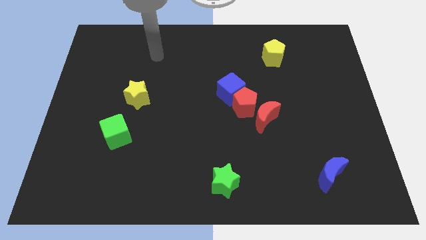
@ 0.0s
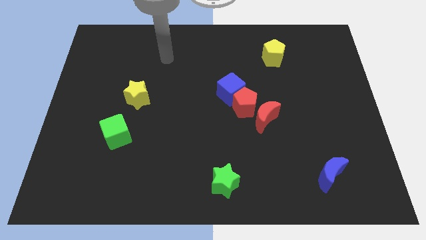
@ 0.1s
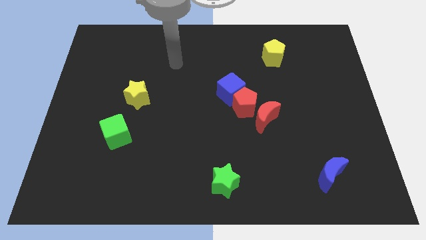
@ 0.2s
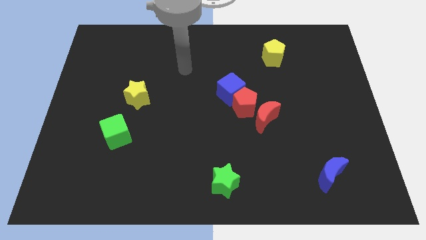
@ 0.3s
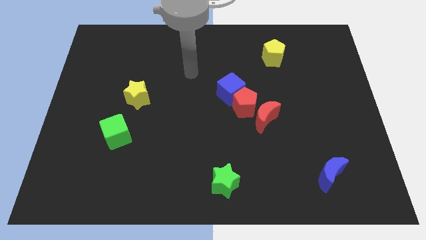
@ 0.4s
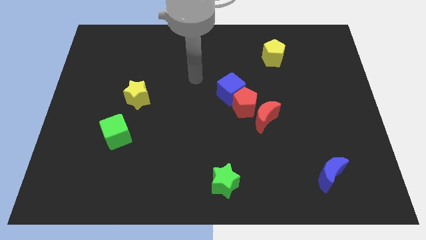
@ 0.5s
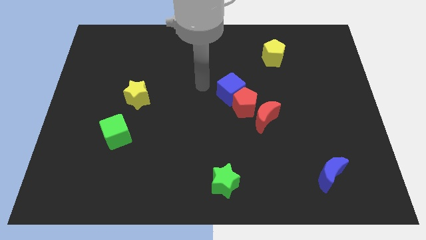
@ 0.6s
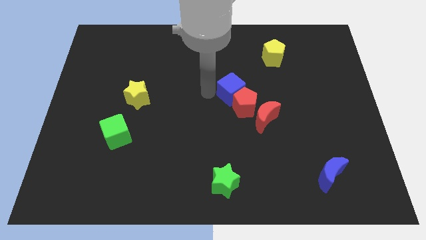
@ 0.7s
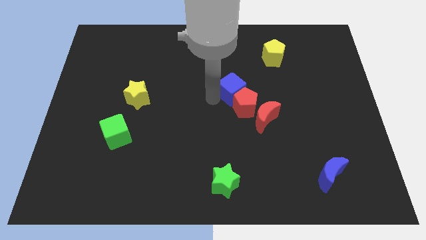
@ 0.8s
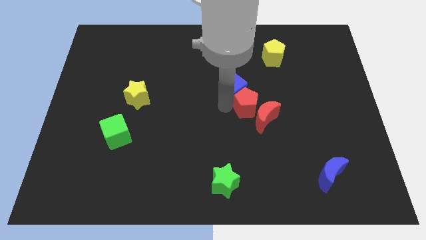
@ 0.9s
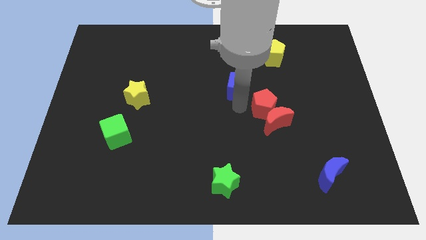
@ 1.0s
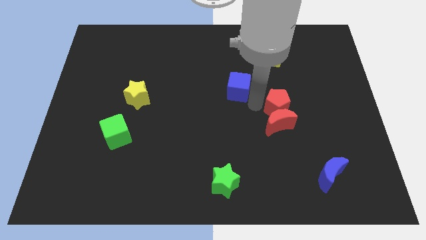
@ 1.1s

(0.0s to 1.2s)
move the blue cube away from the red pentagon

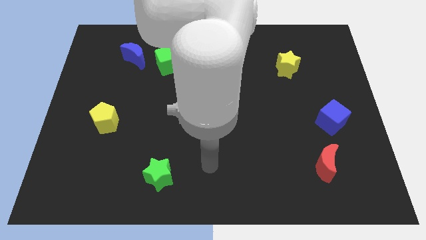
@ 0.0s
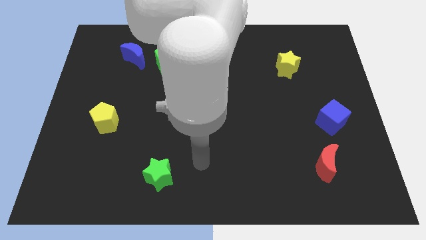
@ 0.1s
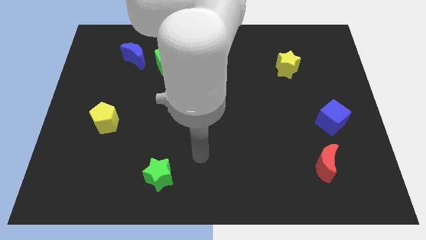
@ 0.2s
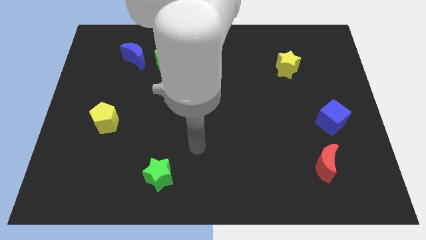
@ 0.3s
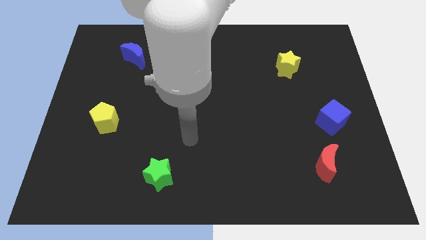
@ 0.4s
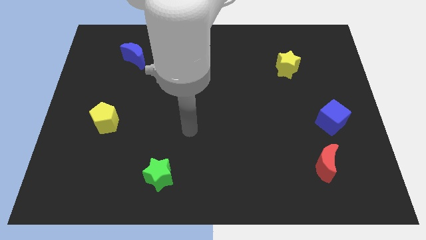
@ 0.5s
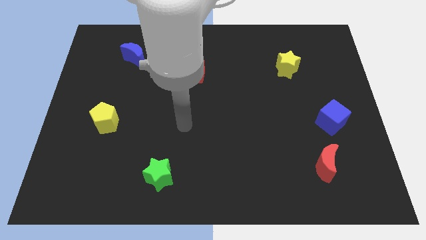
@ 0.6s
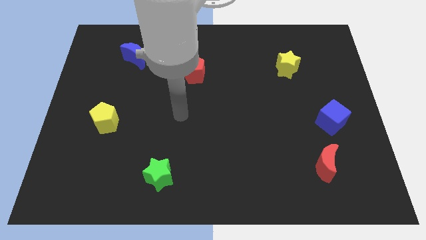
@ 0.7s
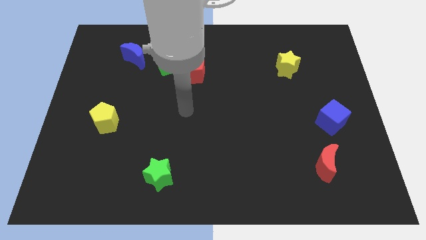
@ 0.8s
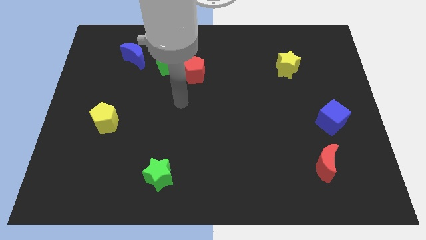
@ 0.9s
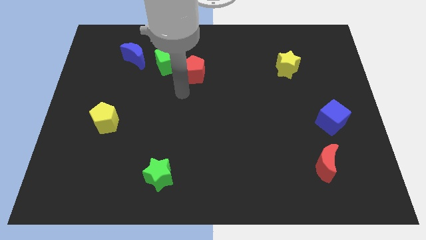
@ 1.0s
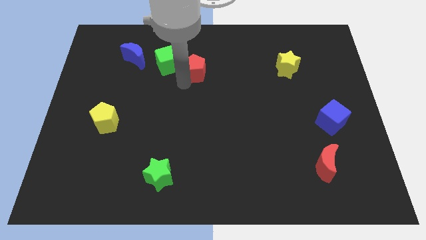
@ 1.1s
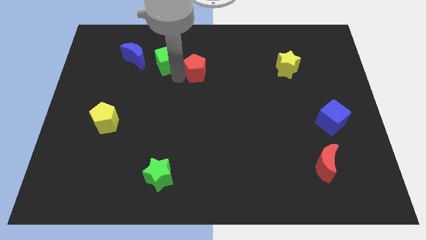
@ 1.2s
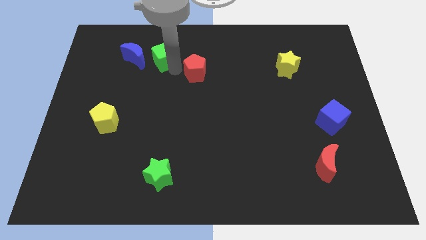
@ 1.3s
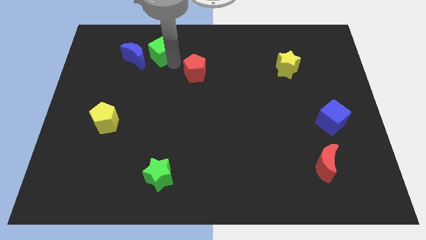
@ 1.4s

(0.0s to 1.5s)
separate the red pentagon from the green cube

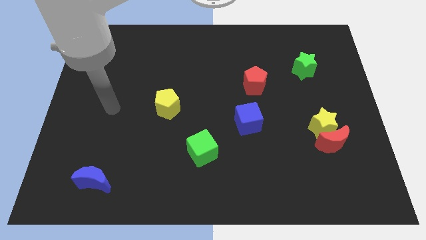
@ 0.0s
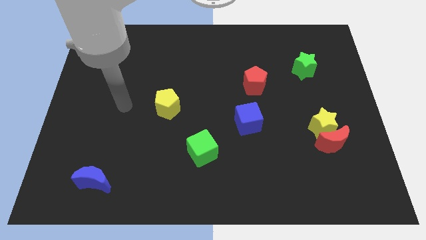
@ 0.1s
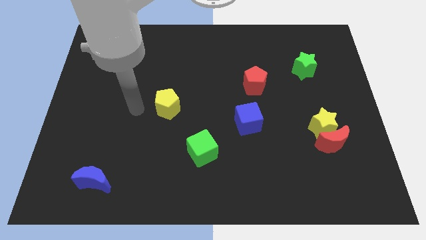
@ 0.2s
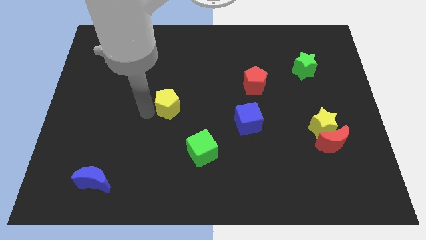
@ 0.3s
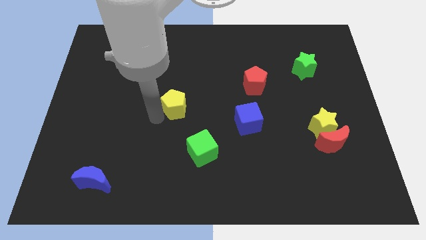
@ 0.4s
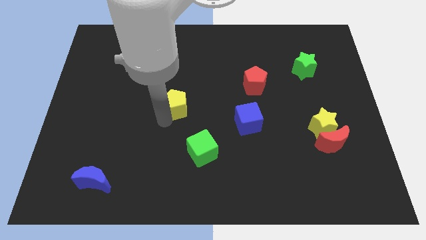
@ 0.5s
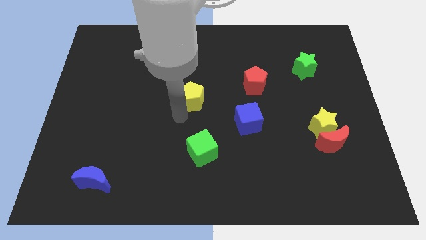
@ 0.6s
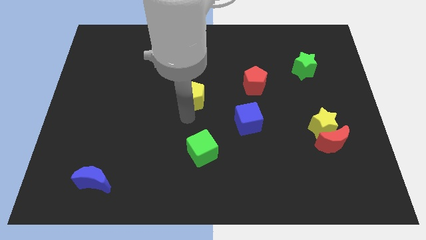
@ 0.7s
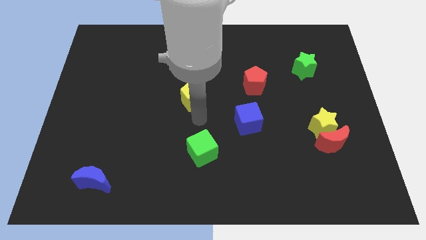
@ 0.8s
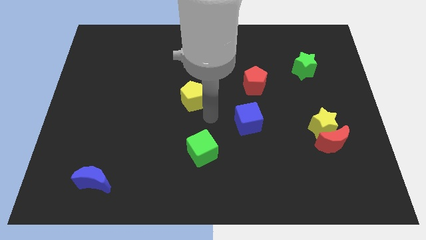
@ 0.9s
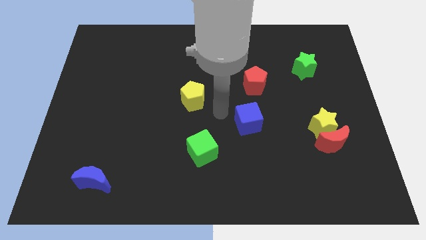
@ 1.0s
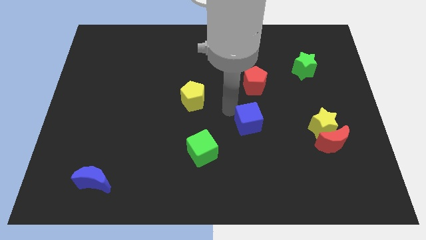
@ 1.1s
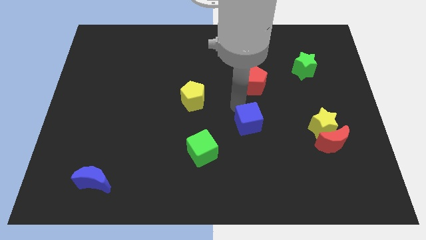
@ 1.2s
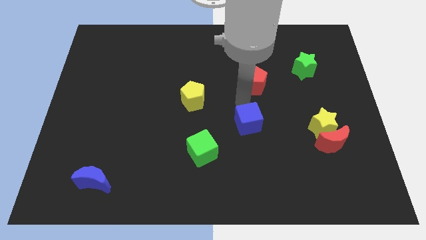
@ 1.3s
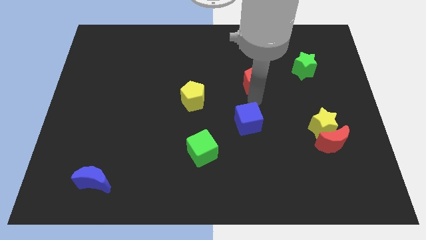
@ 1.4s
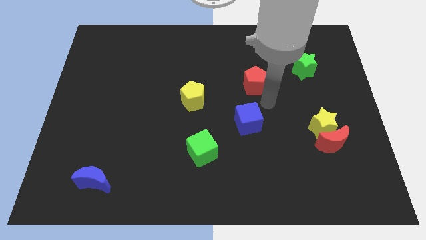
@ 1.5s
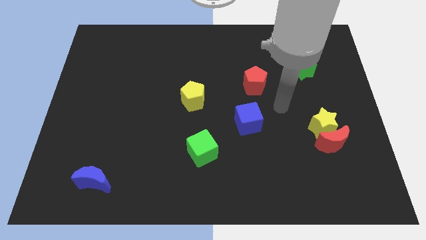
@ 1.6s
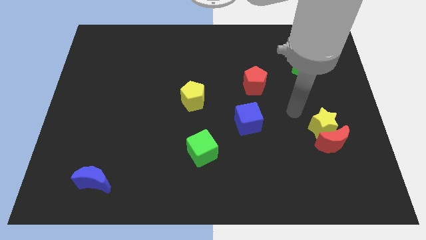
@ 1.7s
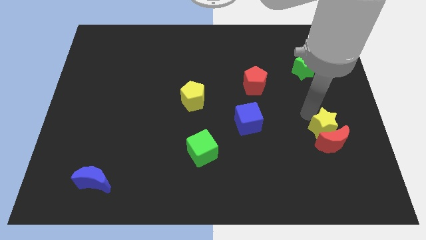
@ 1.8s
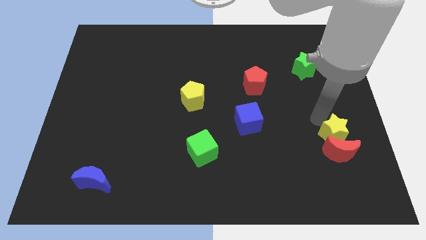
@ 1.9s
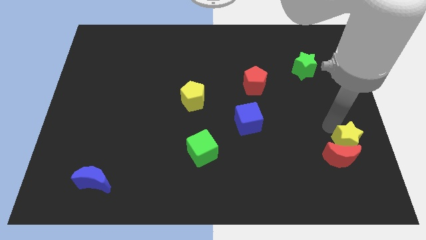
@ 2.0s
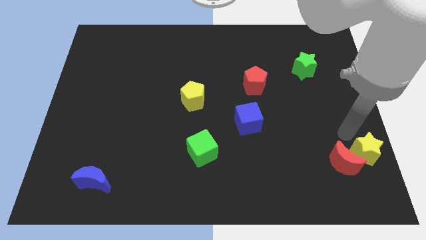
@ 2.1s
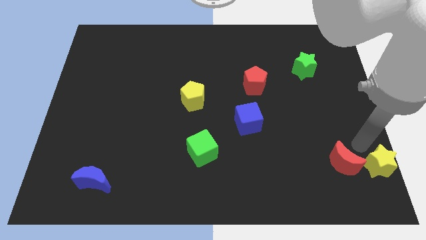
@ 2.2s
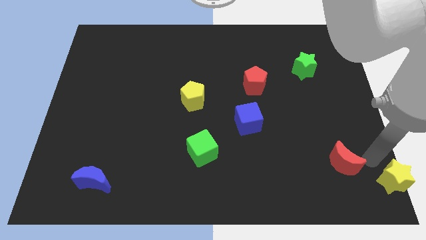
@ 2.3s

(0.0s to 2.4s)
separate the red moon from the yellow star

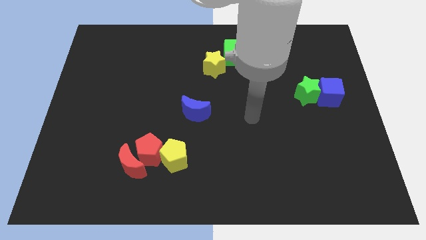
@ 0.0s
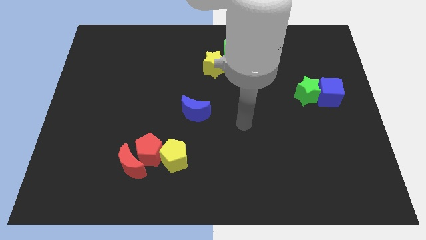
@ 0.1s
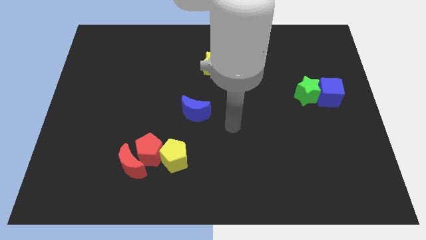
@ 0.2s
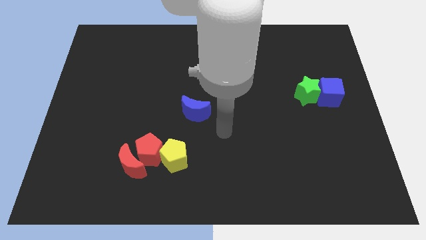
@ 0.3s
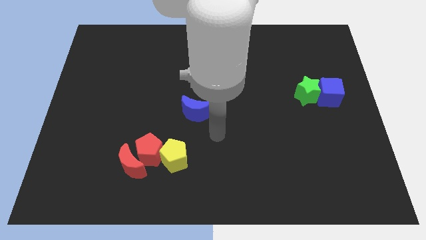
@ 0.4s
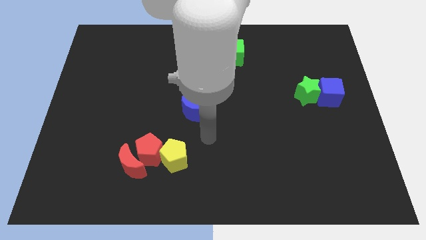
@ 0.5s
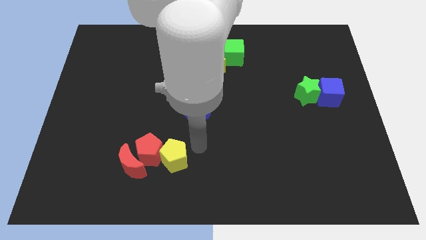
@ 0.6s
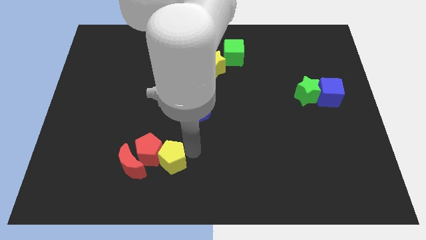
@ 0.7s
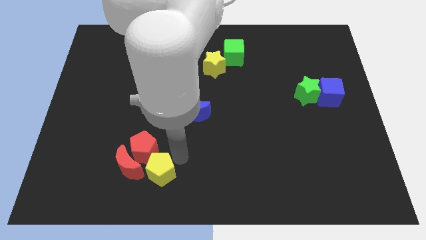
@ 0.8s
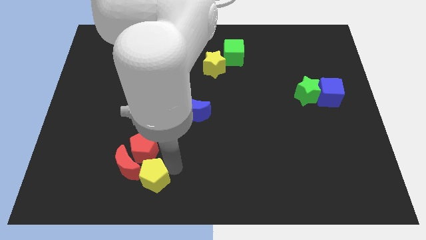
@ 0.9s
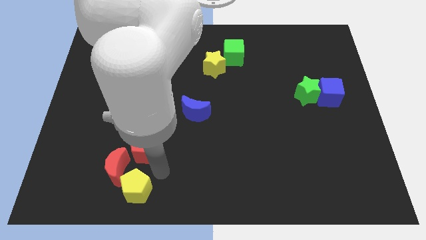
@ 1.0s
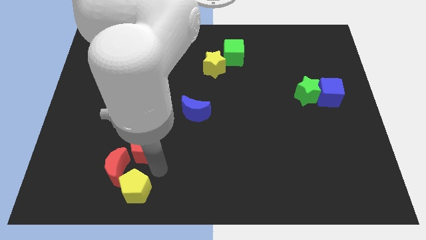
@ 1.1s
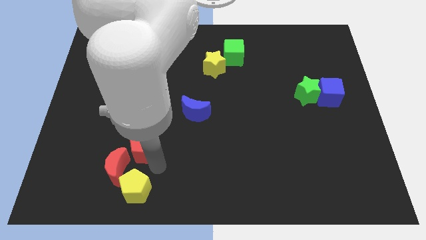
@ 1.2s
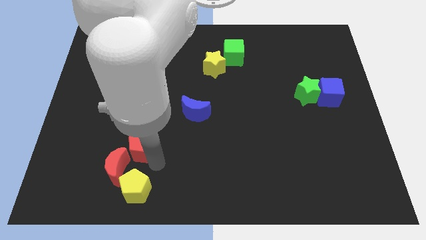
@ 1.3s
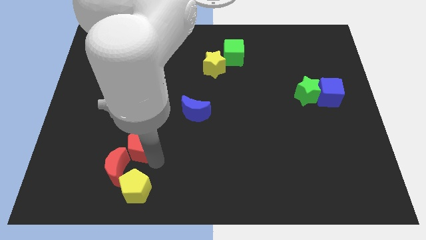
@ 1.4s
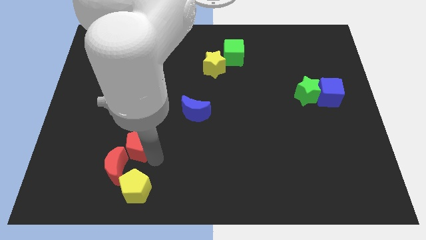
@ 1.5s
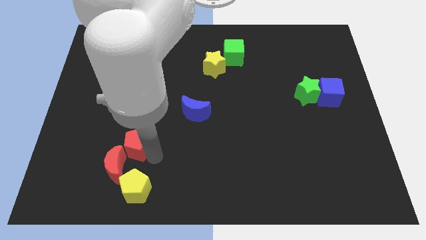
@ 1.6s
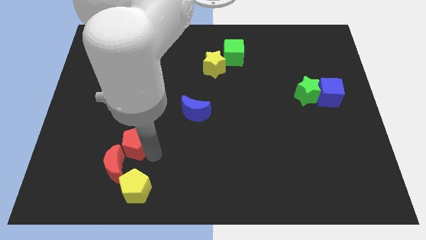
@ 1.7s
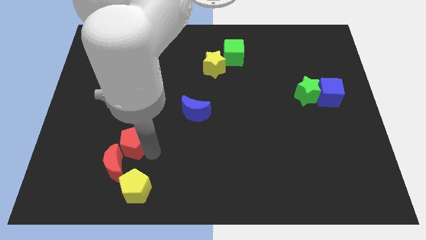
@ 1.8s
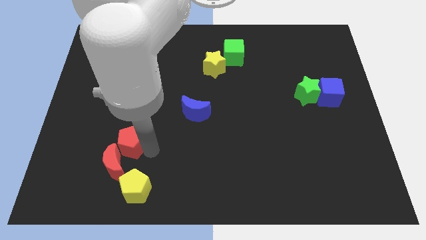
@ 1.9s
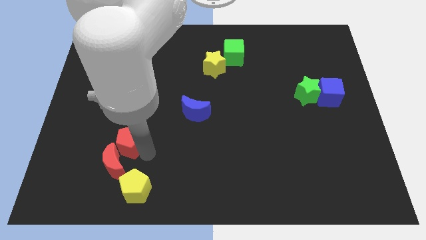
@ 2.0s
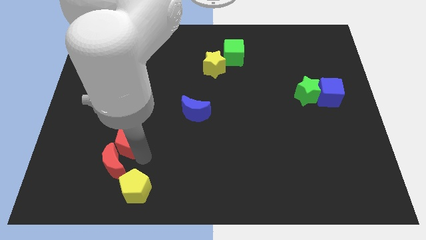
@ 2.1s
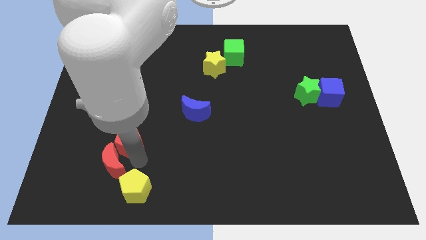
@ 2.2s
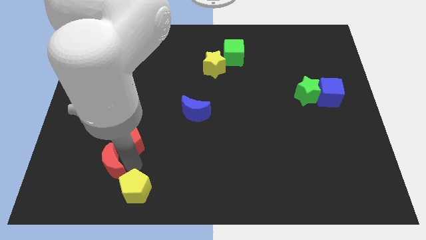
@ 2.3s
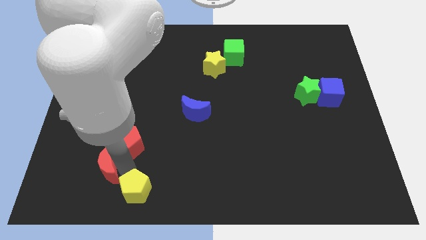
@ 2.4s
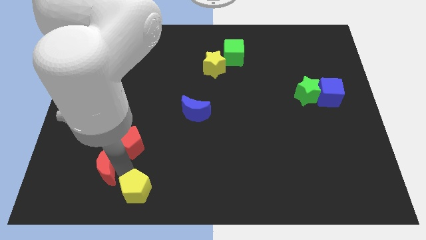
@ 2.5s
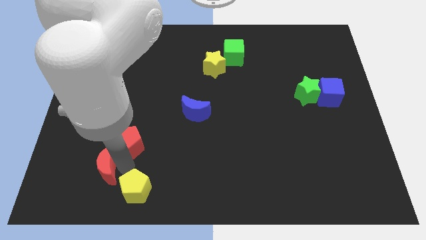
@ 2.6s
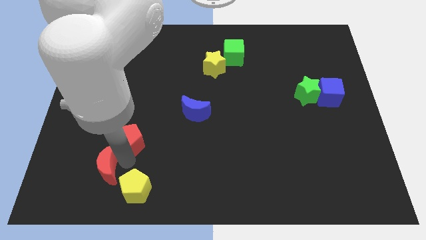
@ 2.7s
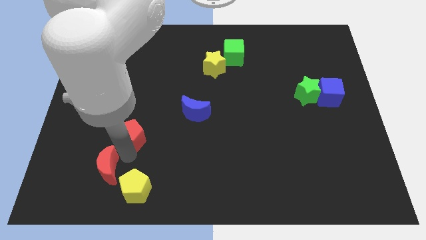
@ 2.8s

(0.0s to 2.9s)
pull the red pentagon apart from the red moon and yellow pentagon

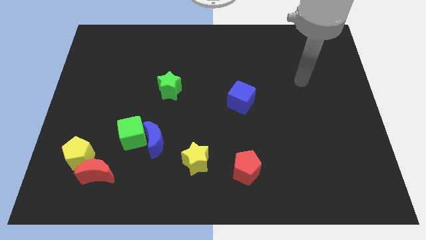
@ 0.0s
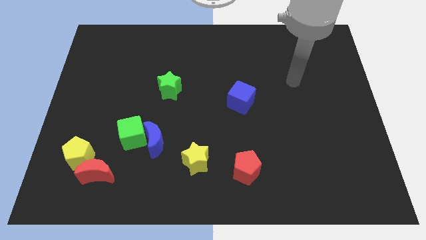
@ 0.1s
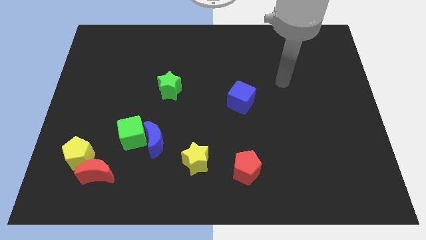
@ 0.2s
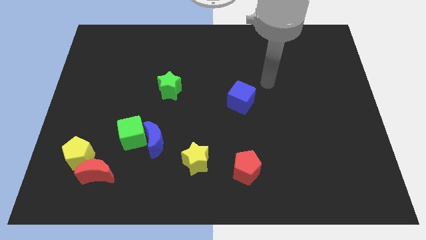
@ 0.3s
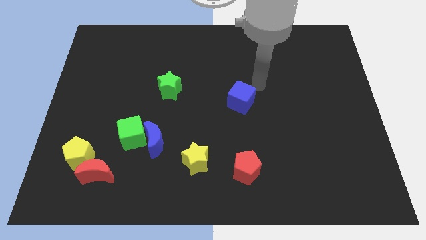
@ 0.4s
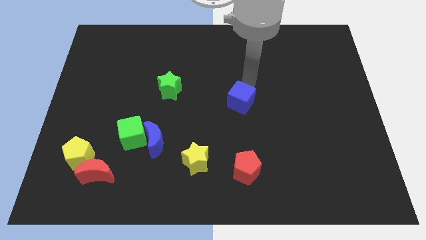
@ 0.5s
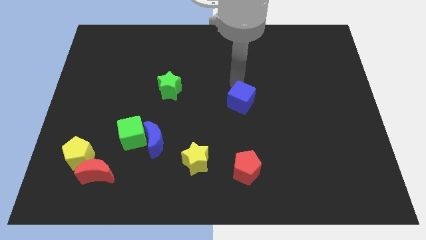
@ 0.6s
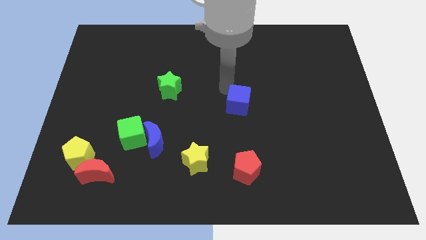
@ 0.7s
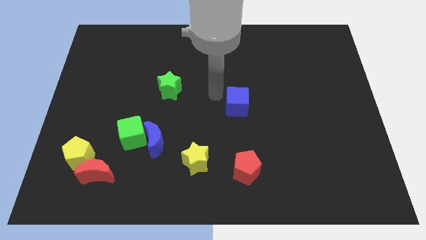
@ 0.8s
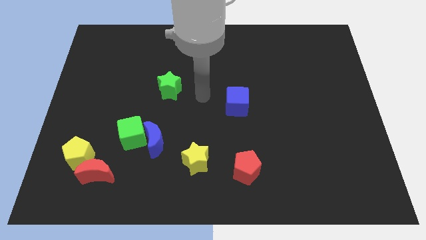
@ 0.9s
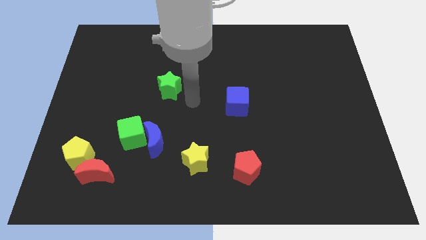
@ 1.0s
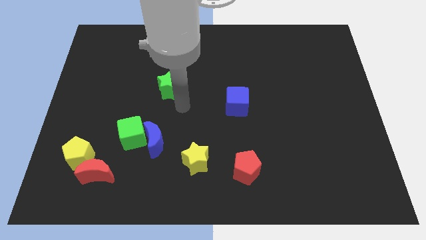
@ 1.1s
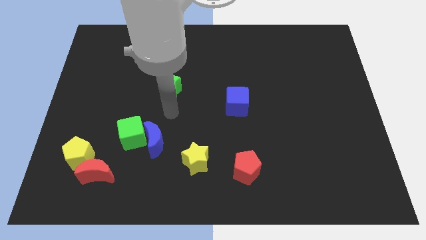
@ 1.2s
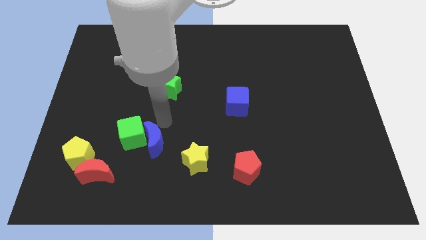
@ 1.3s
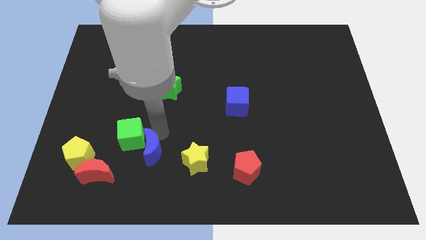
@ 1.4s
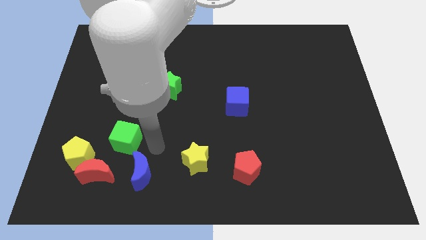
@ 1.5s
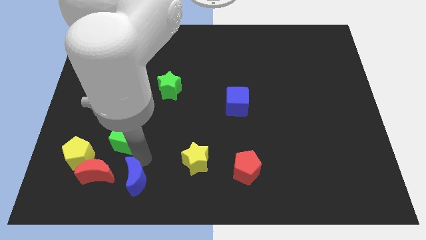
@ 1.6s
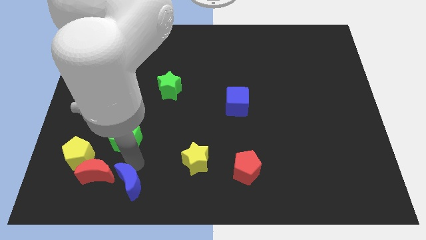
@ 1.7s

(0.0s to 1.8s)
pull the green cube apart from the blue moon
